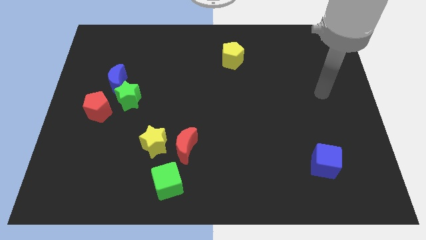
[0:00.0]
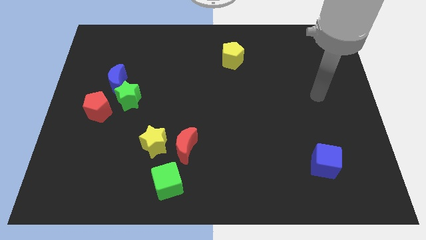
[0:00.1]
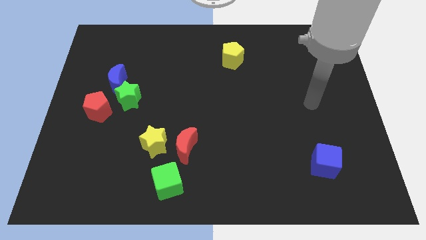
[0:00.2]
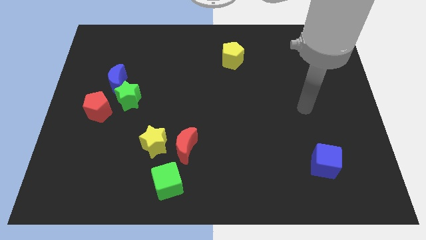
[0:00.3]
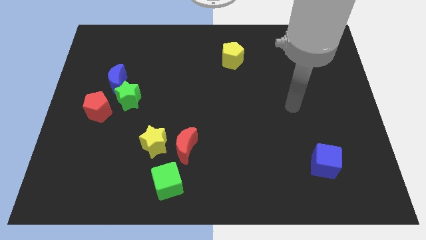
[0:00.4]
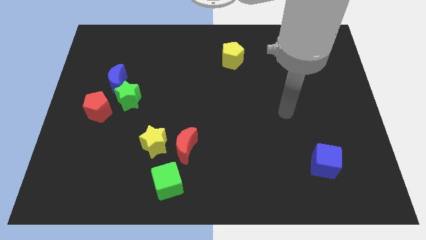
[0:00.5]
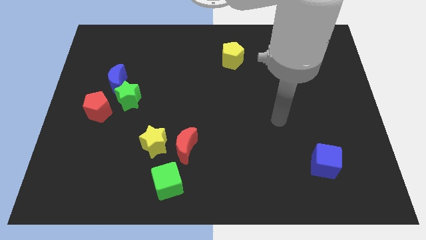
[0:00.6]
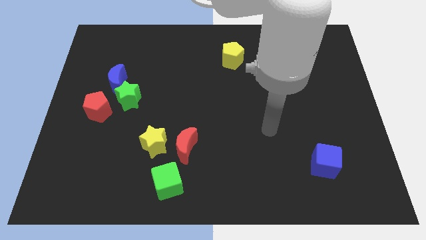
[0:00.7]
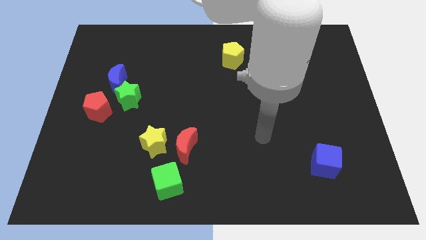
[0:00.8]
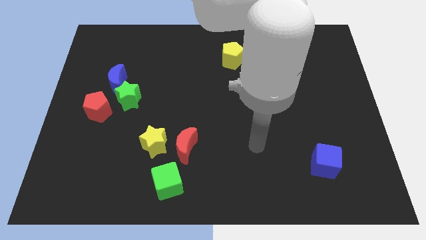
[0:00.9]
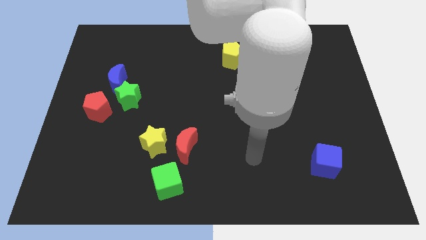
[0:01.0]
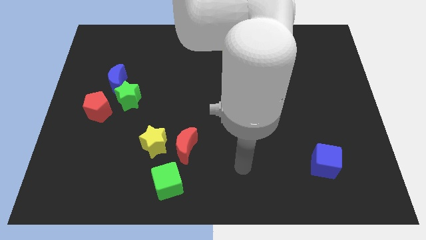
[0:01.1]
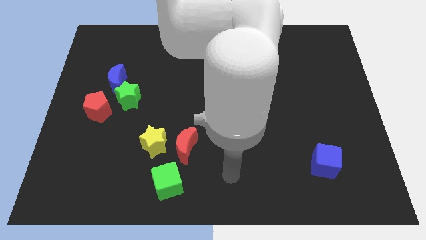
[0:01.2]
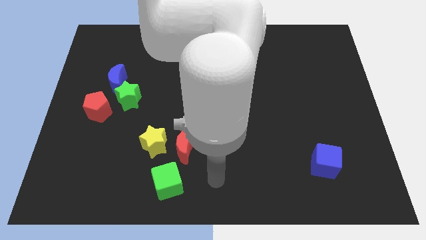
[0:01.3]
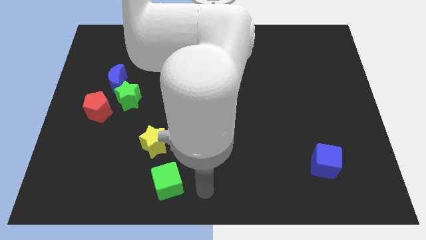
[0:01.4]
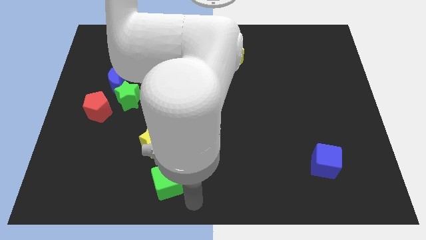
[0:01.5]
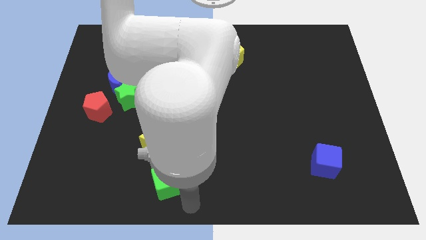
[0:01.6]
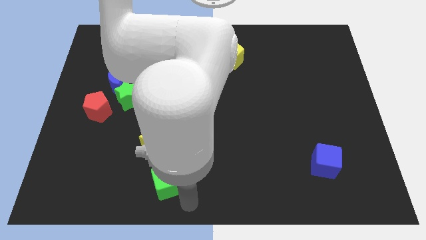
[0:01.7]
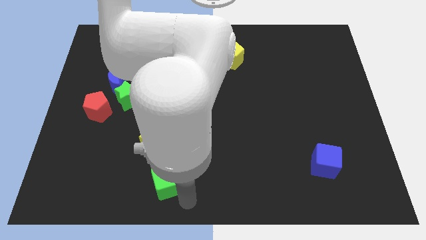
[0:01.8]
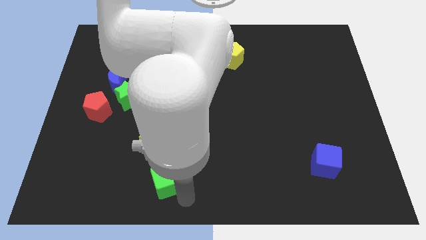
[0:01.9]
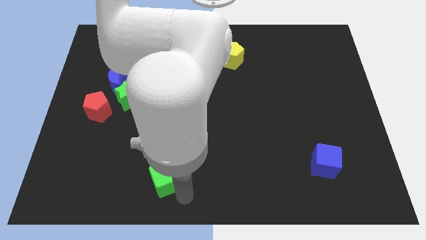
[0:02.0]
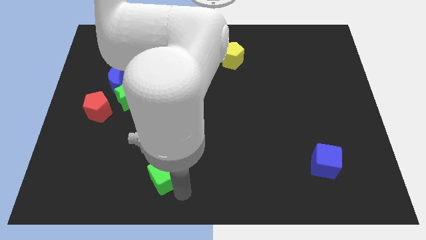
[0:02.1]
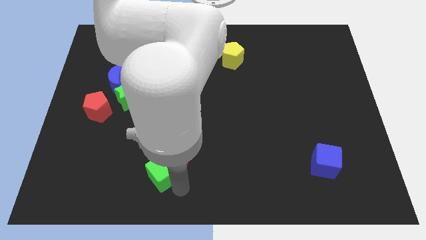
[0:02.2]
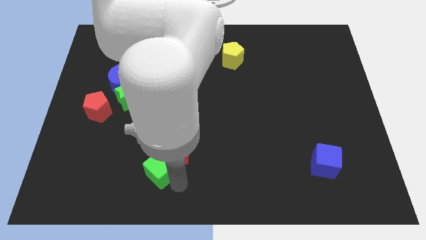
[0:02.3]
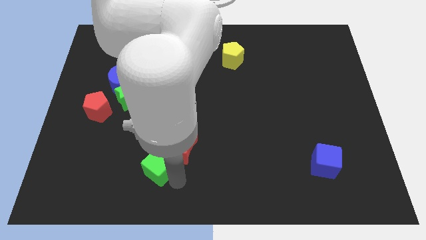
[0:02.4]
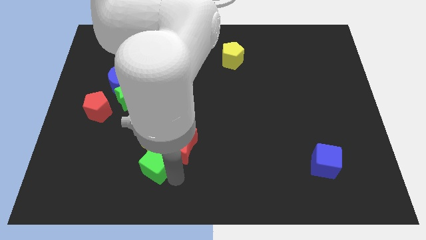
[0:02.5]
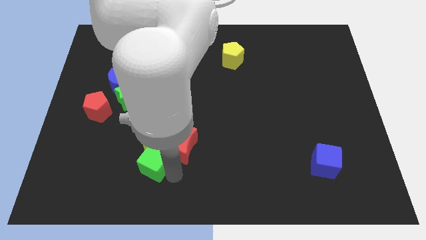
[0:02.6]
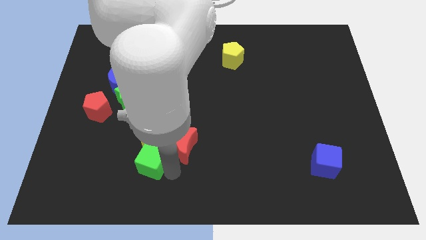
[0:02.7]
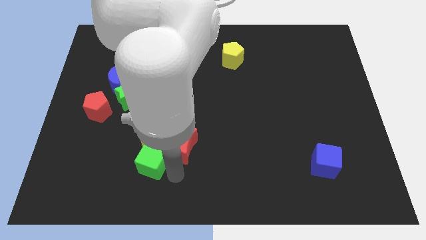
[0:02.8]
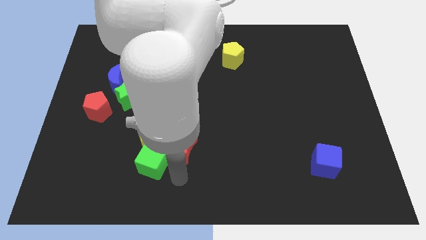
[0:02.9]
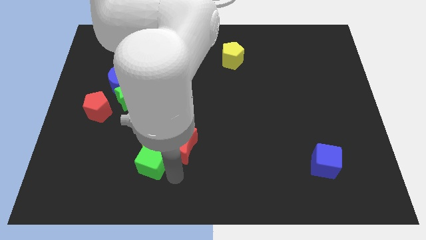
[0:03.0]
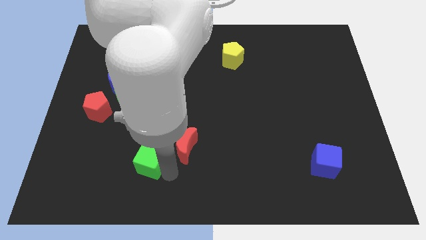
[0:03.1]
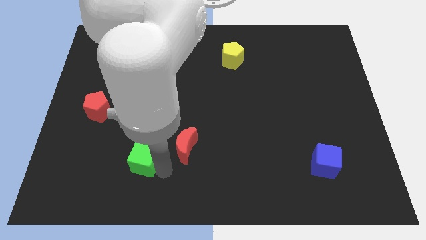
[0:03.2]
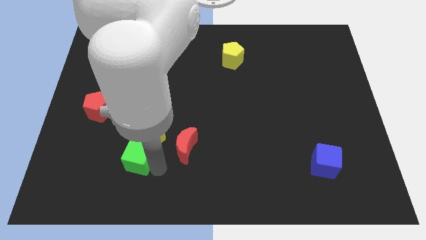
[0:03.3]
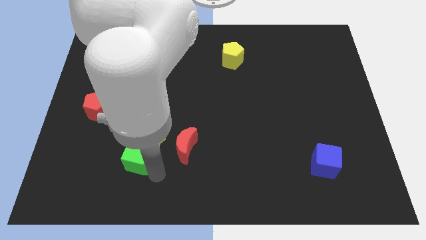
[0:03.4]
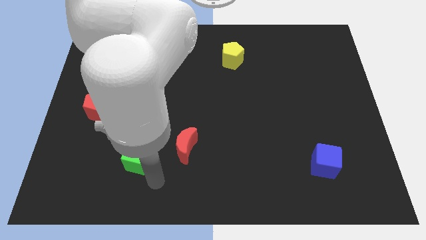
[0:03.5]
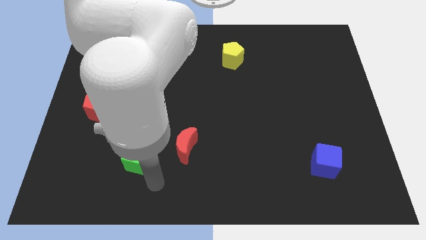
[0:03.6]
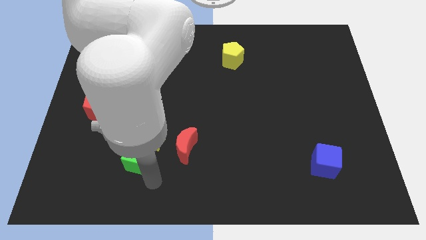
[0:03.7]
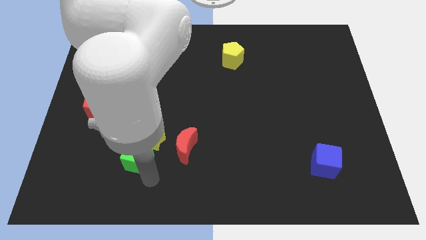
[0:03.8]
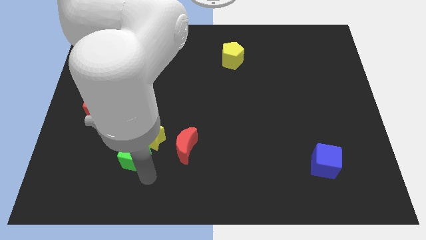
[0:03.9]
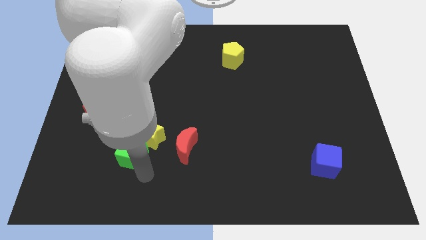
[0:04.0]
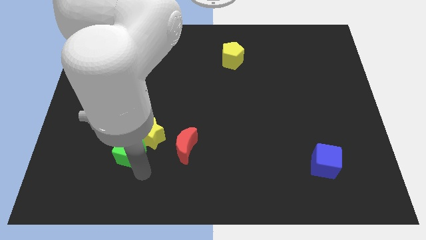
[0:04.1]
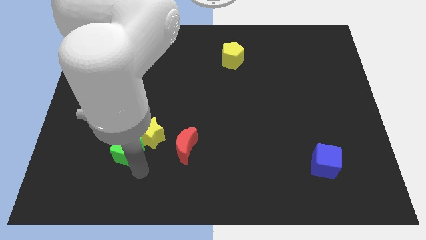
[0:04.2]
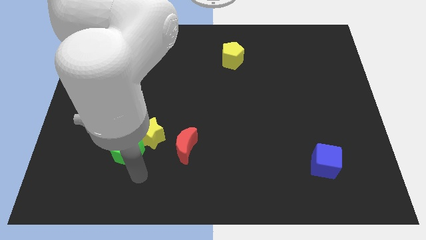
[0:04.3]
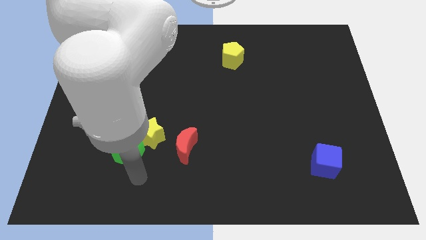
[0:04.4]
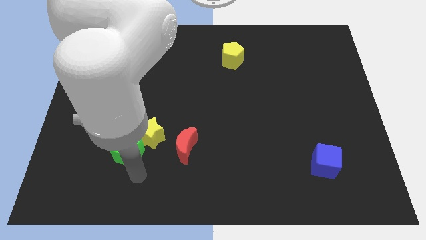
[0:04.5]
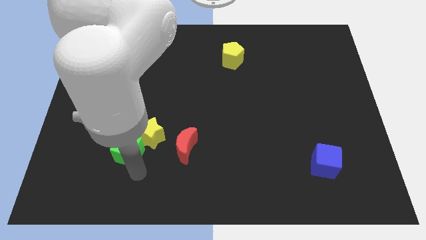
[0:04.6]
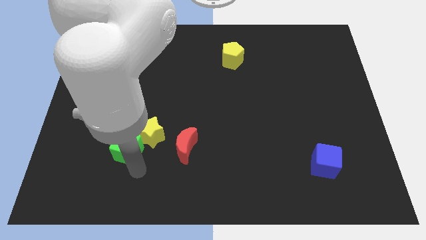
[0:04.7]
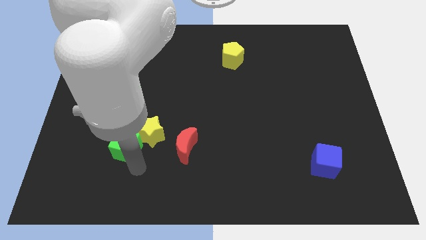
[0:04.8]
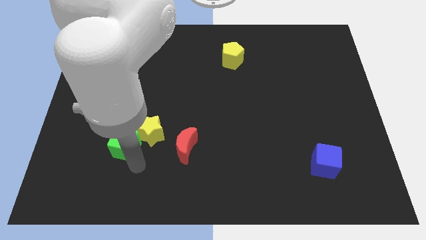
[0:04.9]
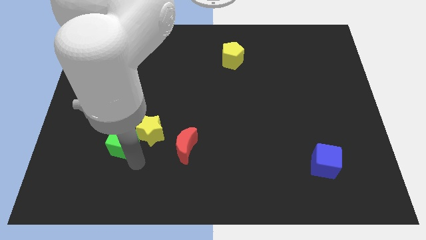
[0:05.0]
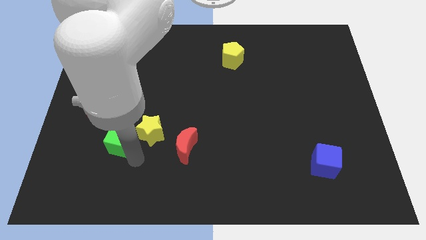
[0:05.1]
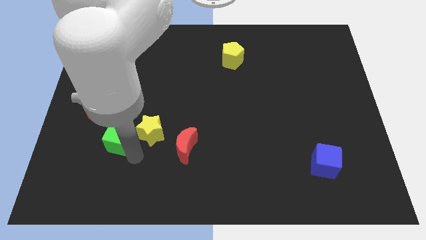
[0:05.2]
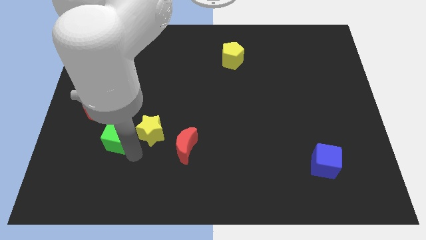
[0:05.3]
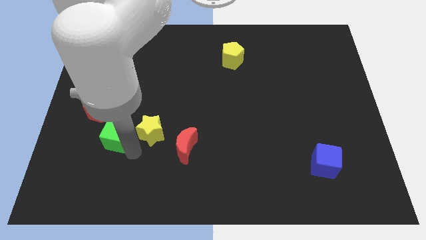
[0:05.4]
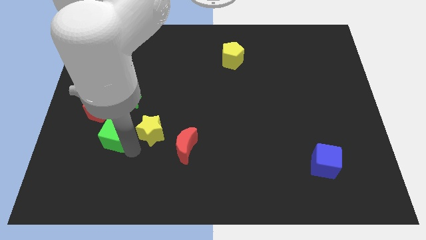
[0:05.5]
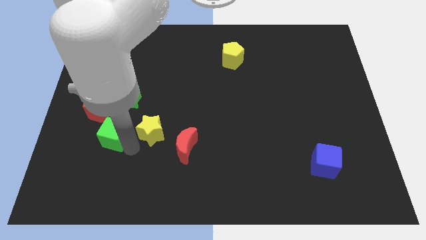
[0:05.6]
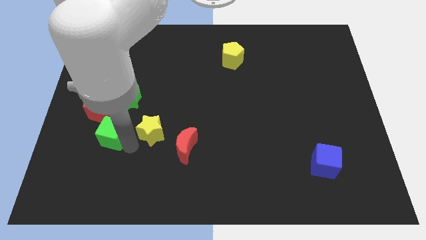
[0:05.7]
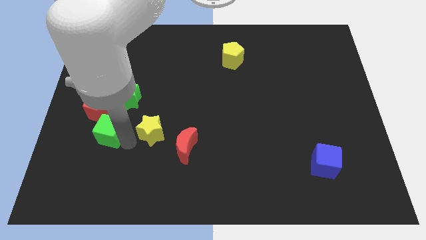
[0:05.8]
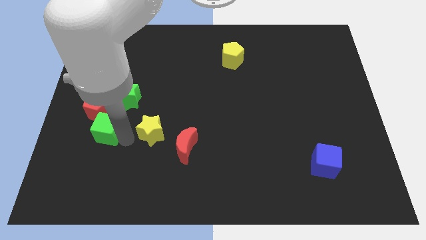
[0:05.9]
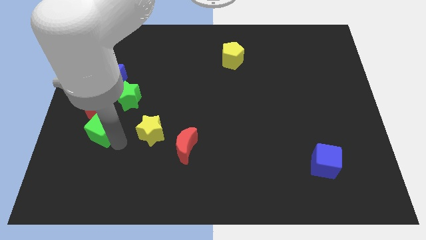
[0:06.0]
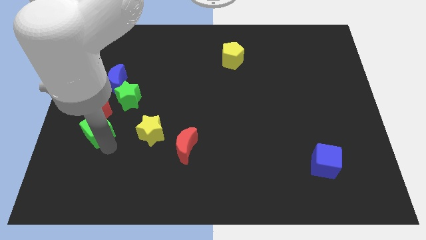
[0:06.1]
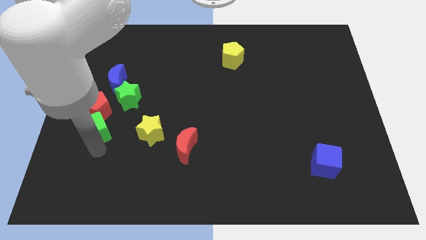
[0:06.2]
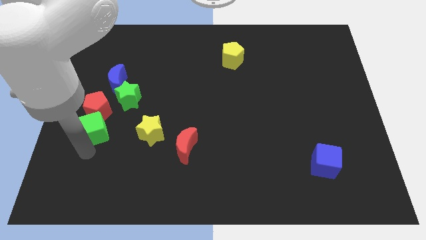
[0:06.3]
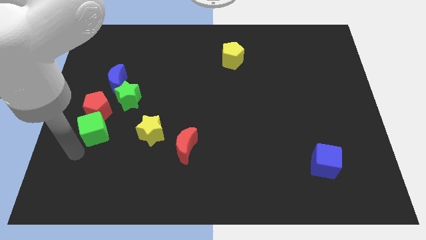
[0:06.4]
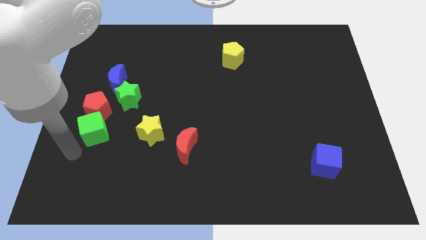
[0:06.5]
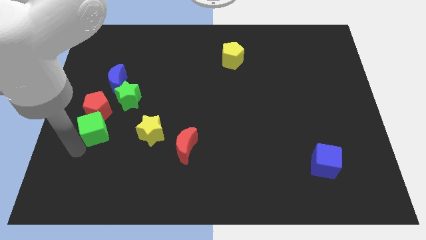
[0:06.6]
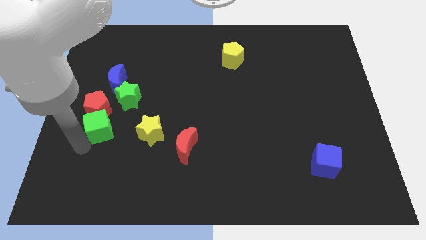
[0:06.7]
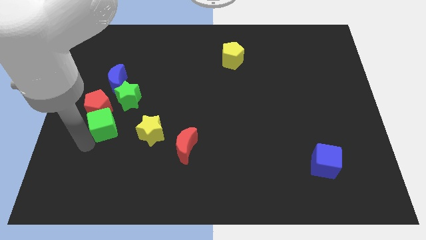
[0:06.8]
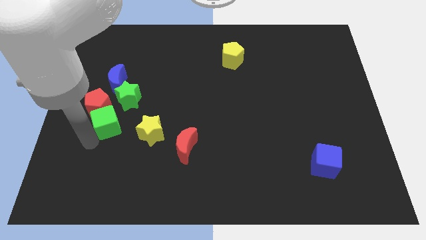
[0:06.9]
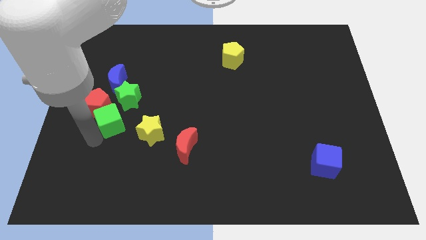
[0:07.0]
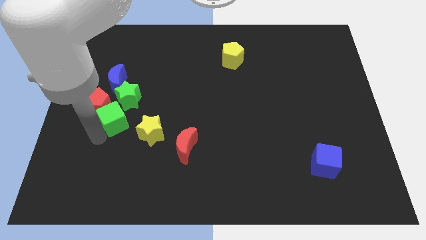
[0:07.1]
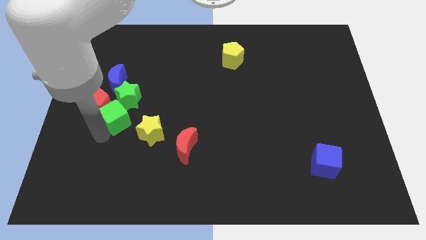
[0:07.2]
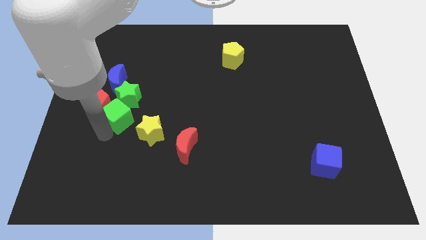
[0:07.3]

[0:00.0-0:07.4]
slide the green cube next to the green star
